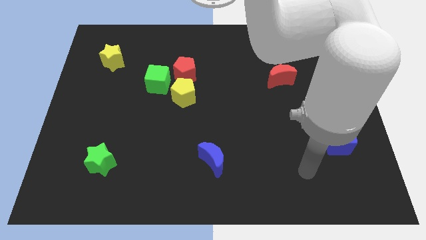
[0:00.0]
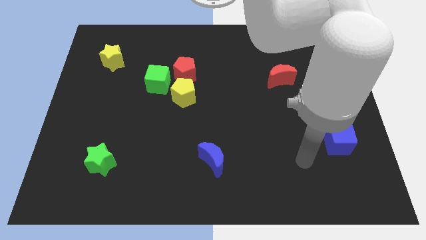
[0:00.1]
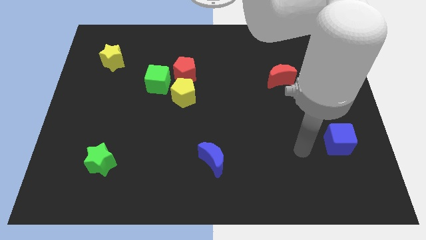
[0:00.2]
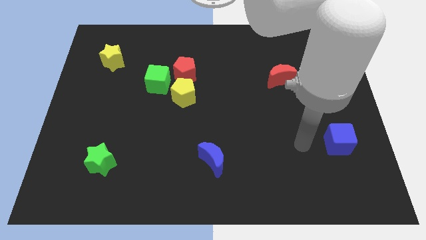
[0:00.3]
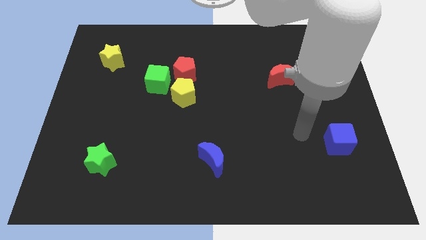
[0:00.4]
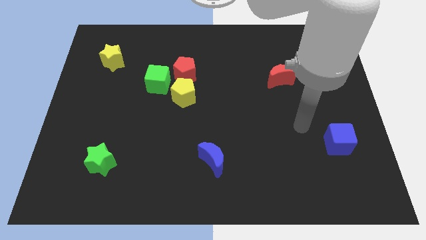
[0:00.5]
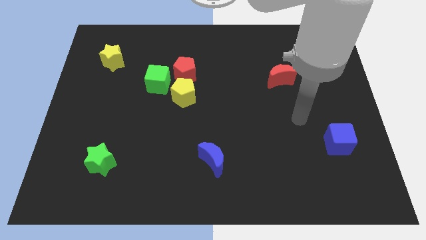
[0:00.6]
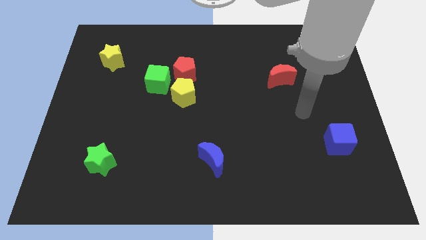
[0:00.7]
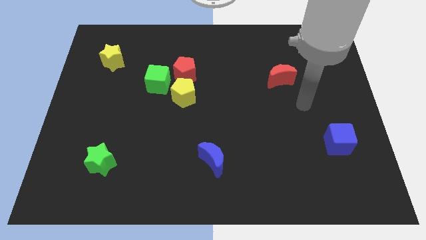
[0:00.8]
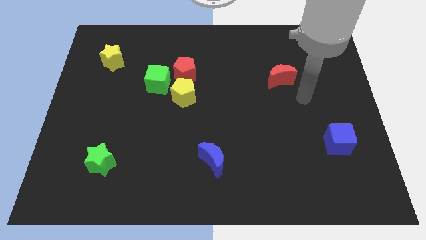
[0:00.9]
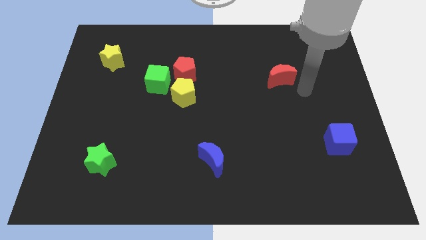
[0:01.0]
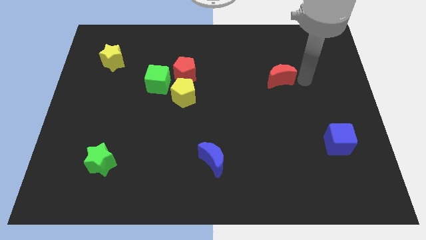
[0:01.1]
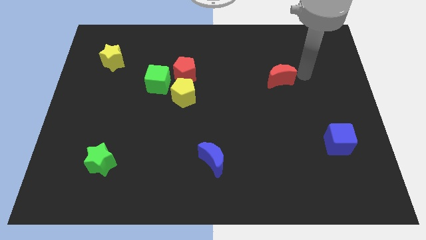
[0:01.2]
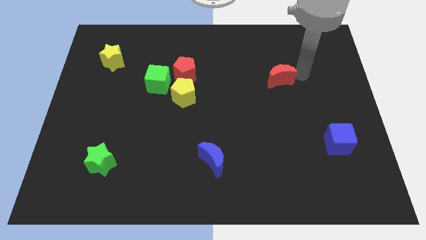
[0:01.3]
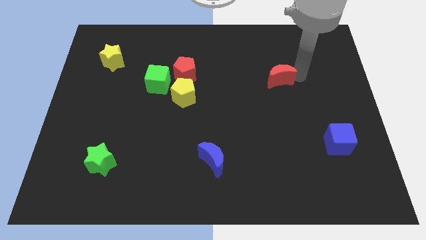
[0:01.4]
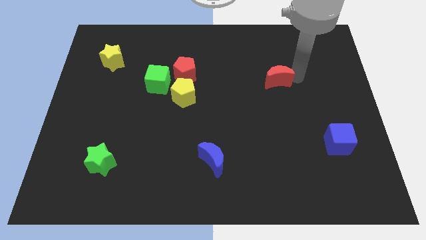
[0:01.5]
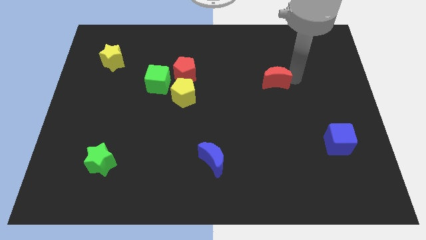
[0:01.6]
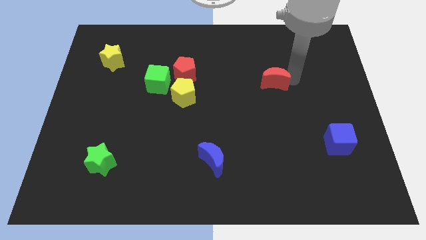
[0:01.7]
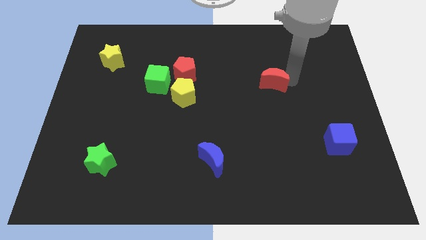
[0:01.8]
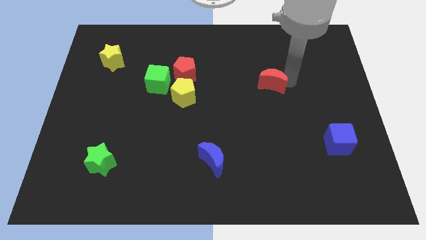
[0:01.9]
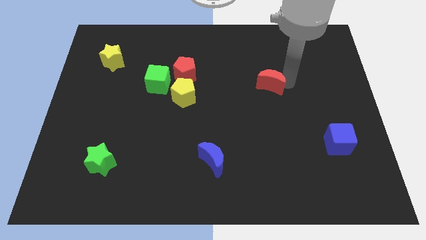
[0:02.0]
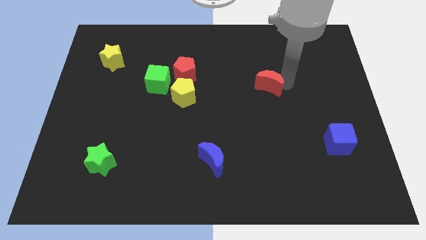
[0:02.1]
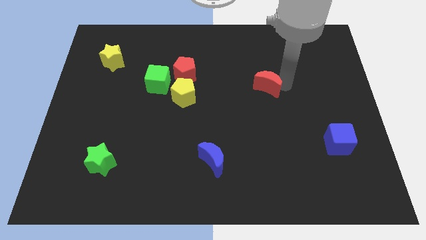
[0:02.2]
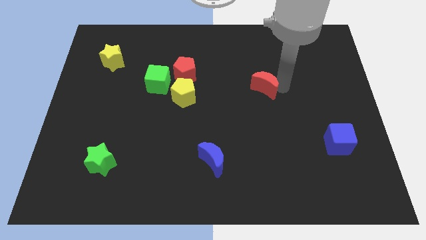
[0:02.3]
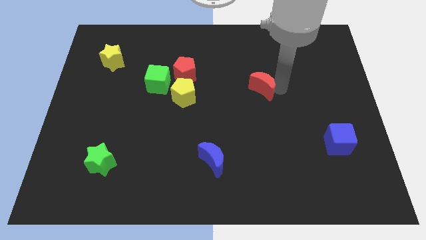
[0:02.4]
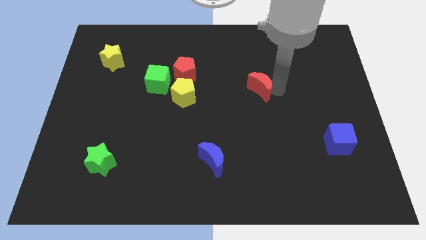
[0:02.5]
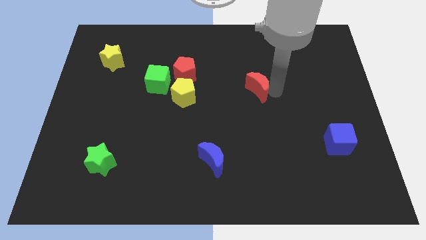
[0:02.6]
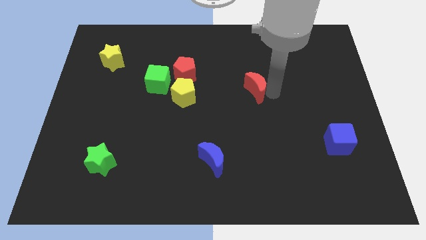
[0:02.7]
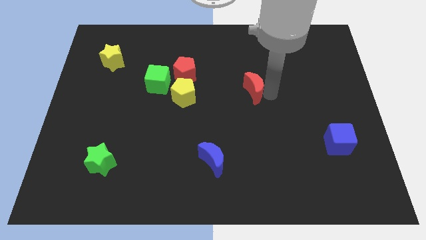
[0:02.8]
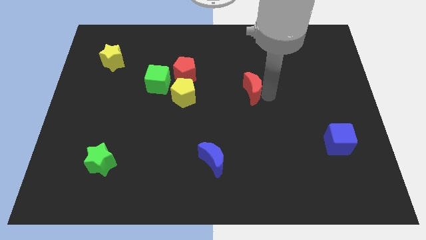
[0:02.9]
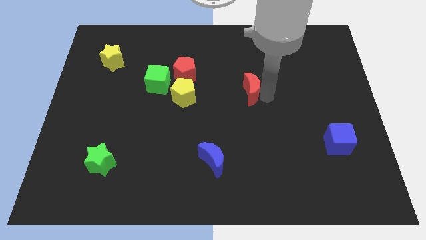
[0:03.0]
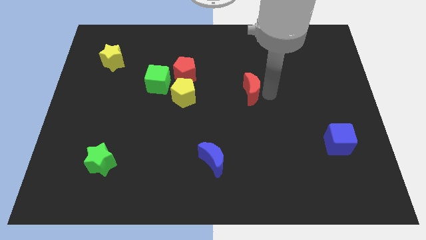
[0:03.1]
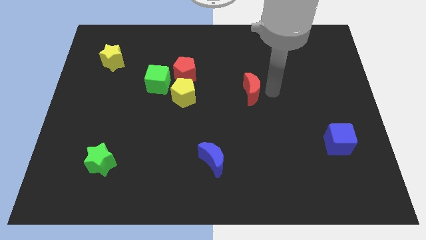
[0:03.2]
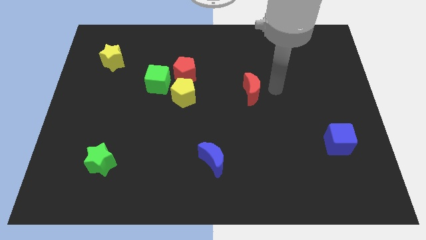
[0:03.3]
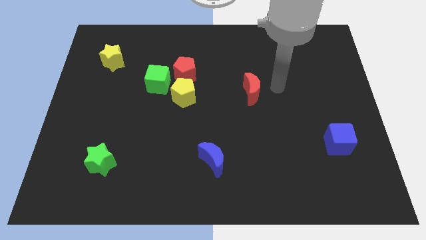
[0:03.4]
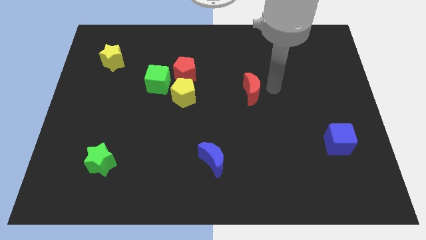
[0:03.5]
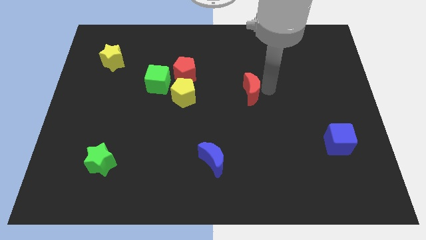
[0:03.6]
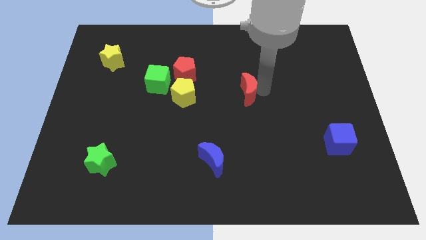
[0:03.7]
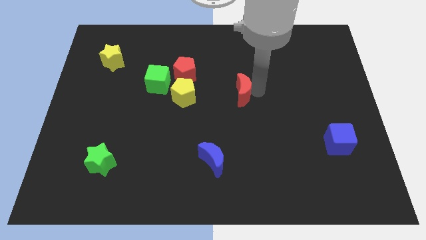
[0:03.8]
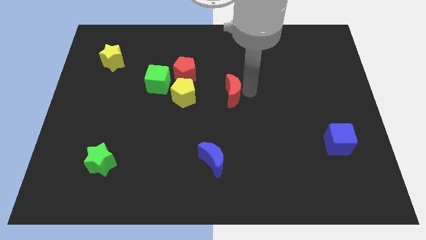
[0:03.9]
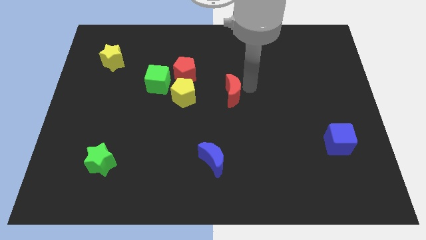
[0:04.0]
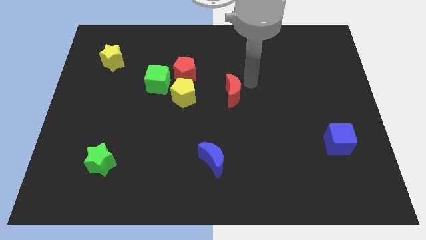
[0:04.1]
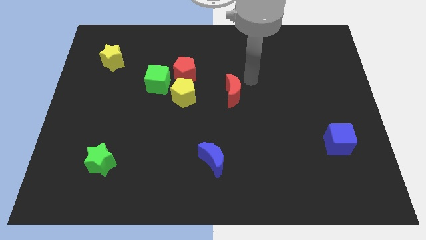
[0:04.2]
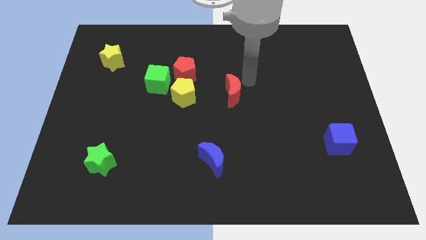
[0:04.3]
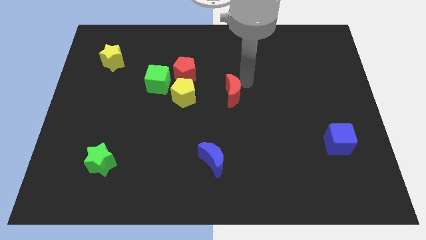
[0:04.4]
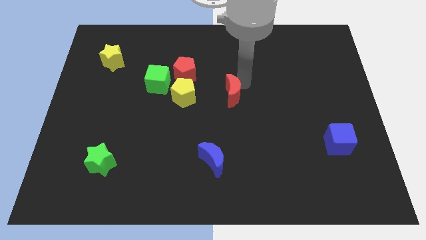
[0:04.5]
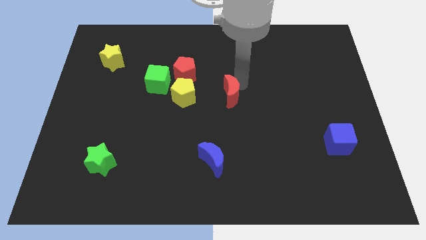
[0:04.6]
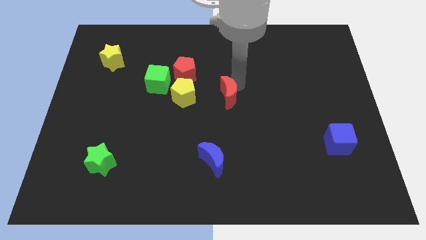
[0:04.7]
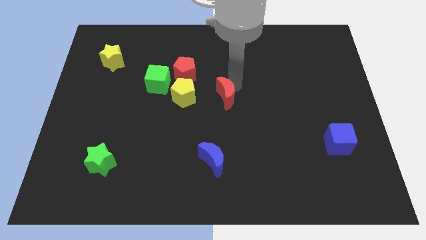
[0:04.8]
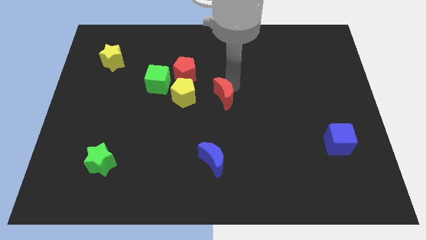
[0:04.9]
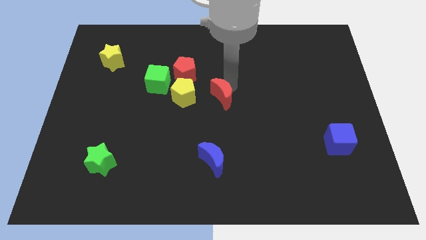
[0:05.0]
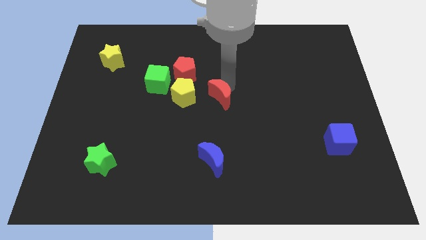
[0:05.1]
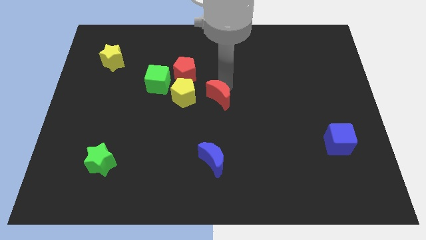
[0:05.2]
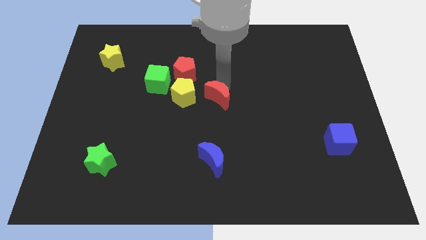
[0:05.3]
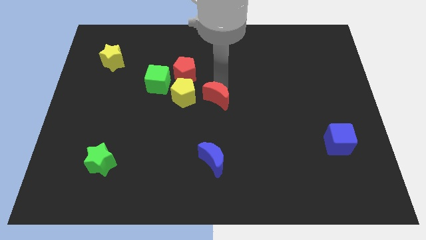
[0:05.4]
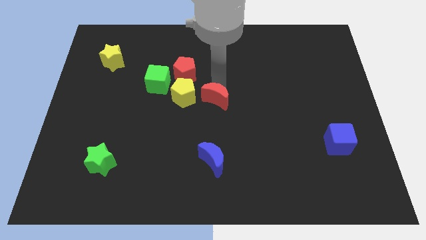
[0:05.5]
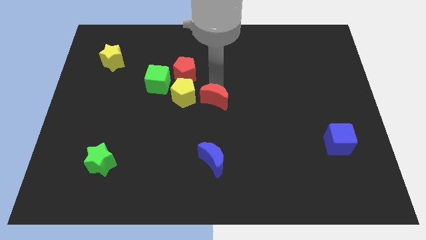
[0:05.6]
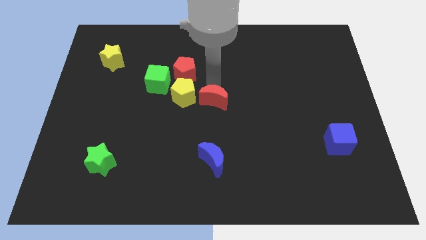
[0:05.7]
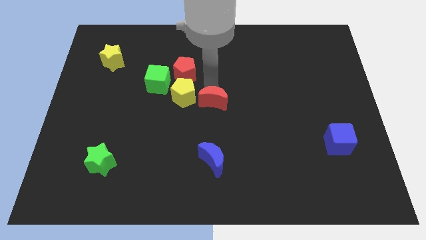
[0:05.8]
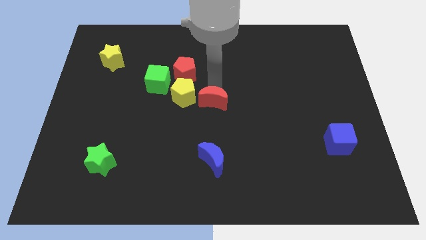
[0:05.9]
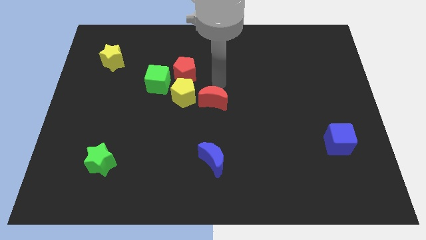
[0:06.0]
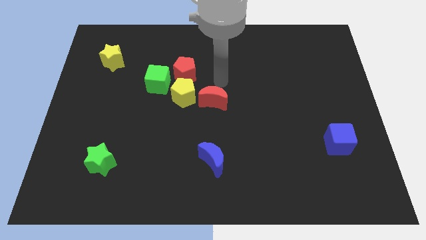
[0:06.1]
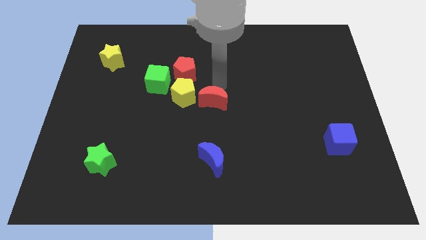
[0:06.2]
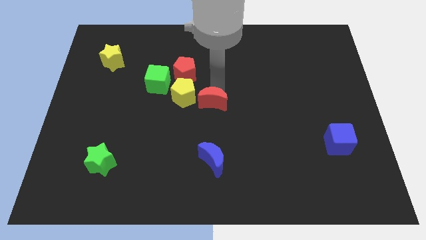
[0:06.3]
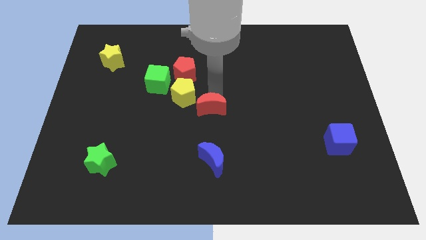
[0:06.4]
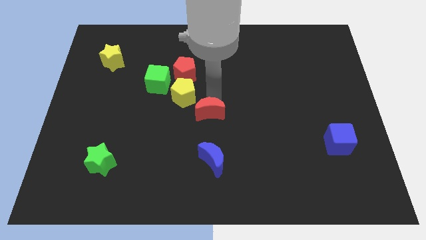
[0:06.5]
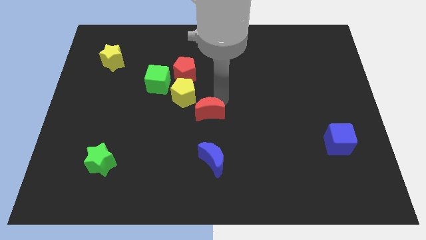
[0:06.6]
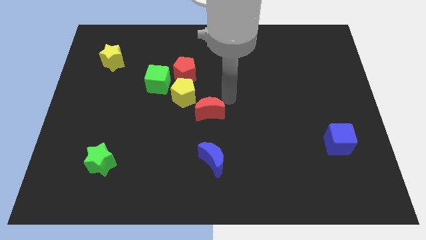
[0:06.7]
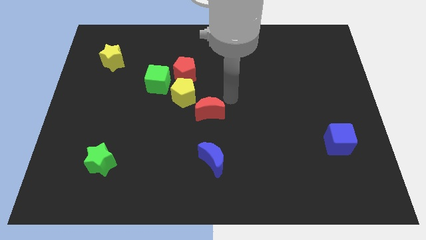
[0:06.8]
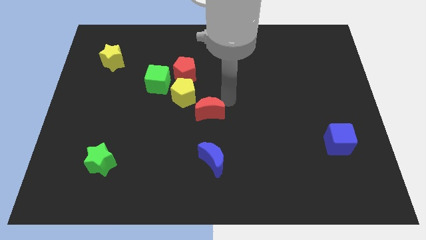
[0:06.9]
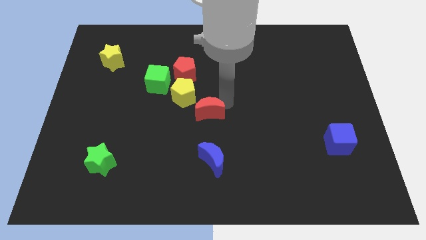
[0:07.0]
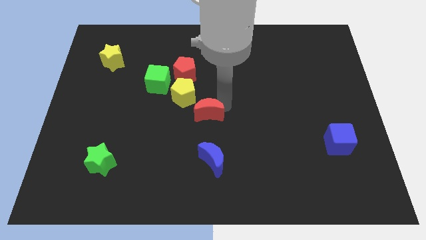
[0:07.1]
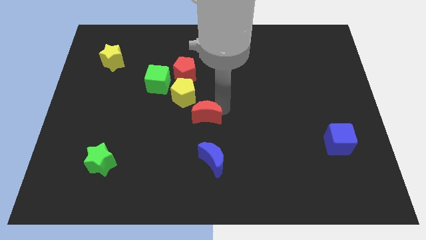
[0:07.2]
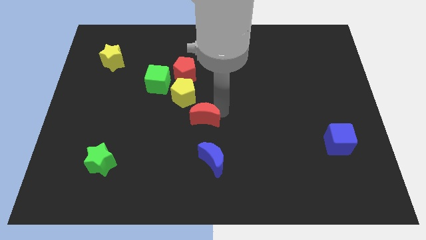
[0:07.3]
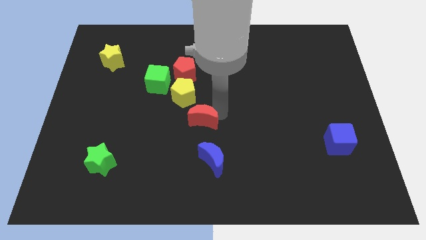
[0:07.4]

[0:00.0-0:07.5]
push the red moon to the bottom side of the yellow pentagon
